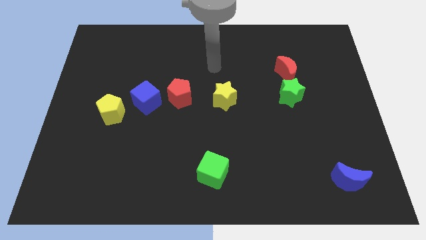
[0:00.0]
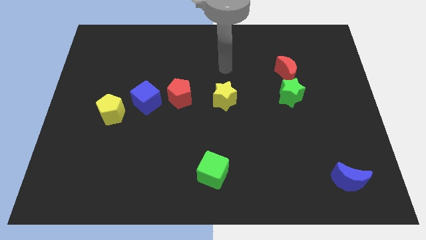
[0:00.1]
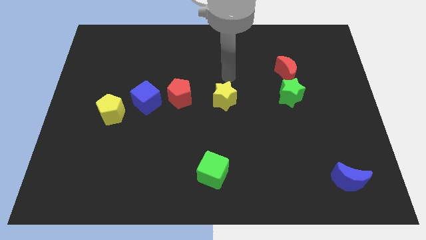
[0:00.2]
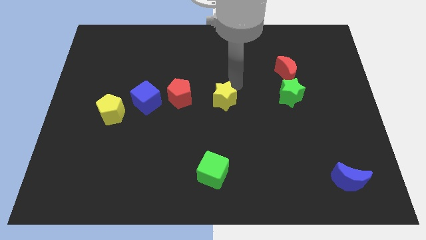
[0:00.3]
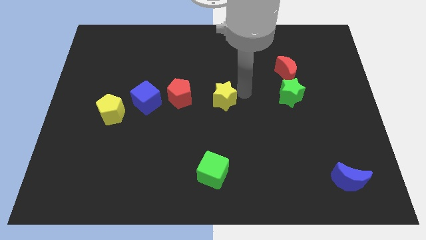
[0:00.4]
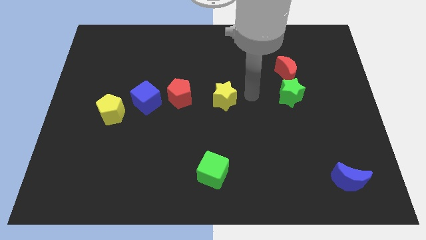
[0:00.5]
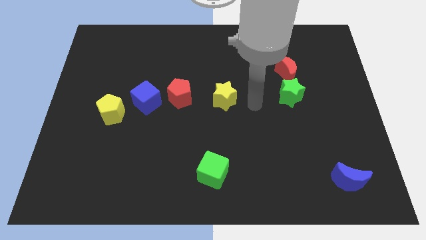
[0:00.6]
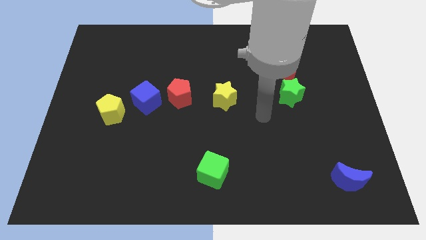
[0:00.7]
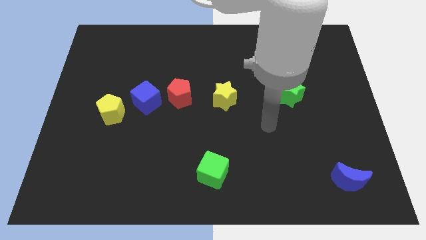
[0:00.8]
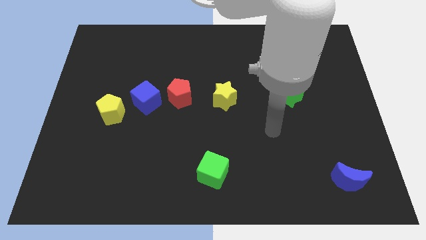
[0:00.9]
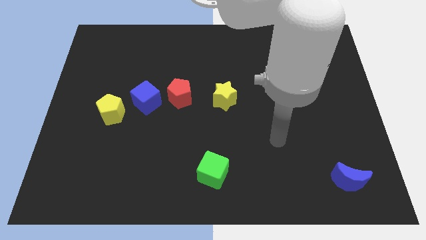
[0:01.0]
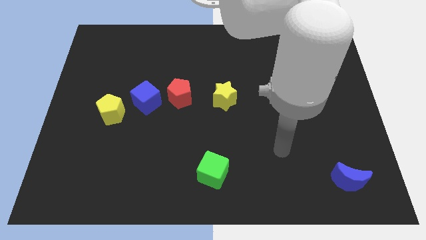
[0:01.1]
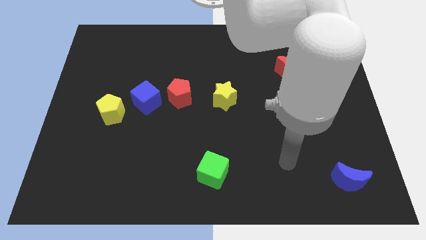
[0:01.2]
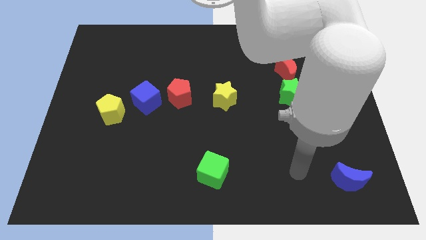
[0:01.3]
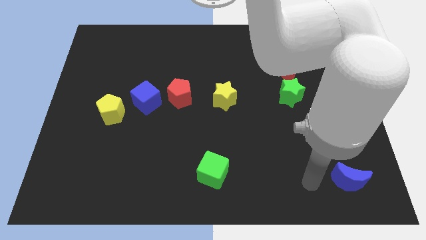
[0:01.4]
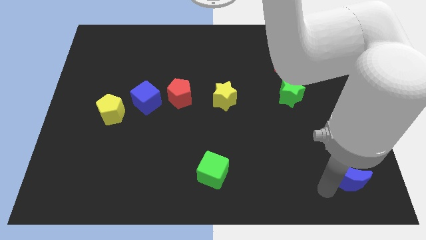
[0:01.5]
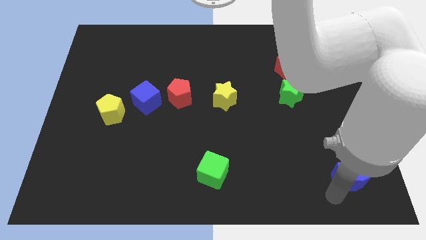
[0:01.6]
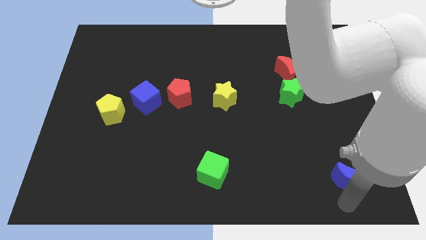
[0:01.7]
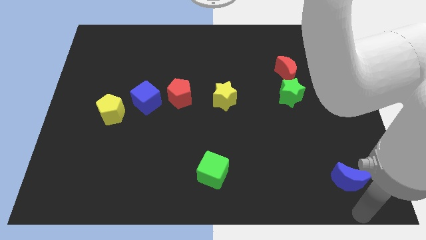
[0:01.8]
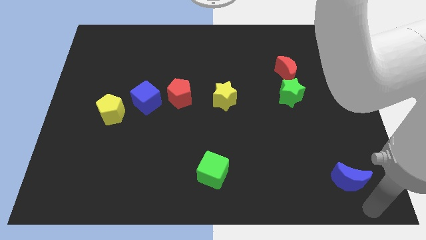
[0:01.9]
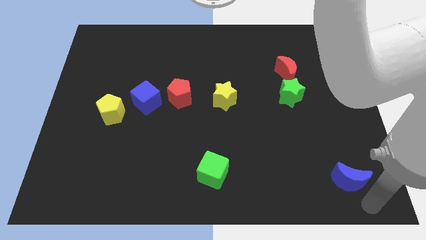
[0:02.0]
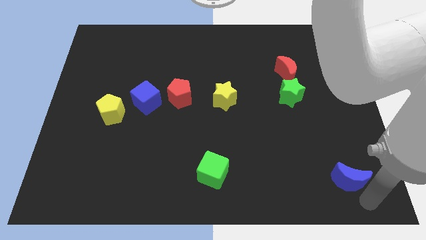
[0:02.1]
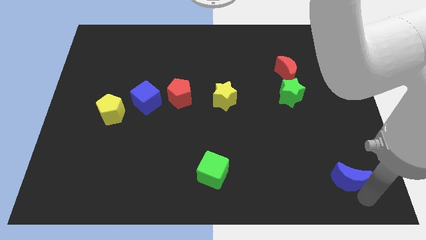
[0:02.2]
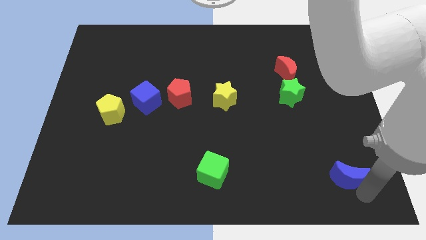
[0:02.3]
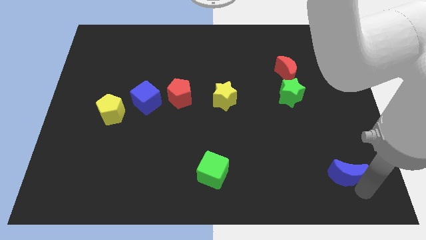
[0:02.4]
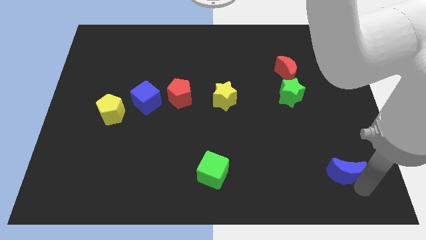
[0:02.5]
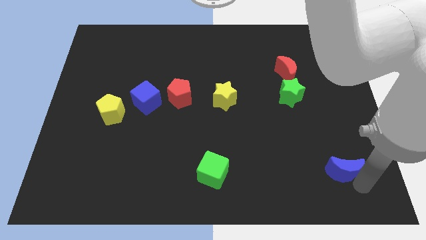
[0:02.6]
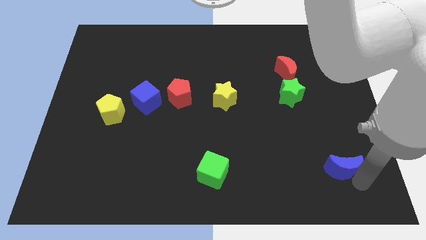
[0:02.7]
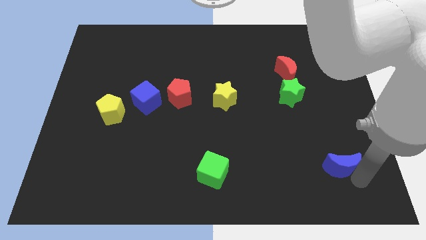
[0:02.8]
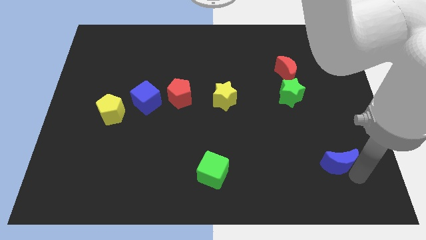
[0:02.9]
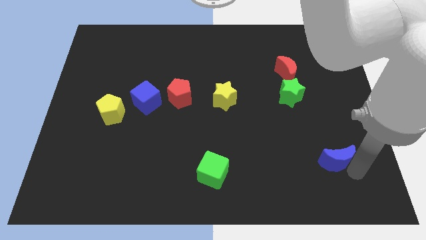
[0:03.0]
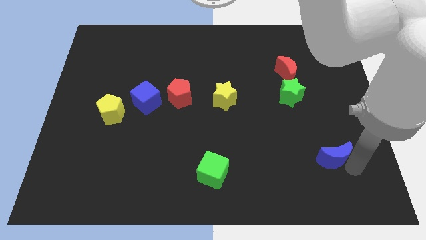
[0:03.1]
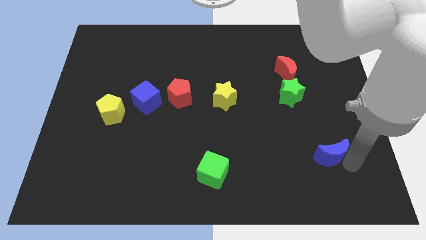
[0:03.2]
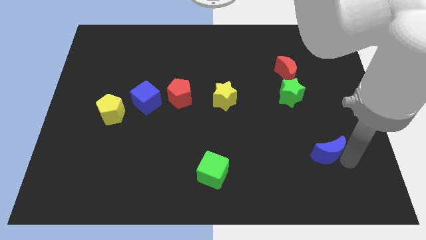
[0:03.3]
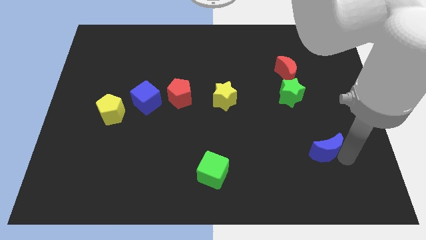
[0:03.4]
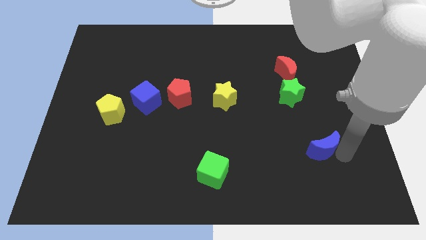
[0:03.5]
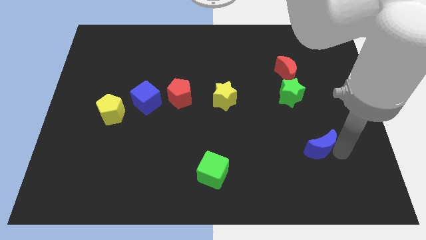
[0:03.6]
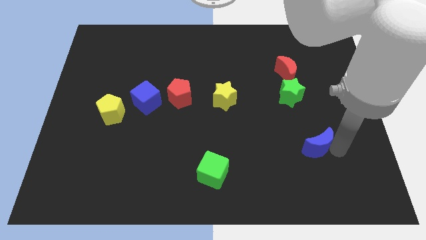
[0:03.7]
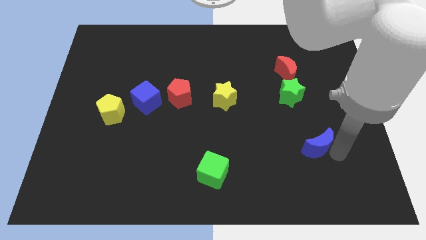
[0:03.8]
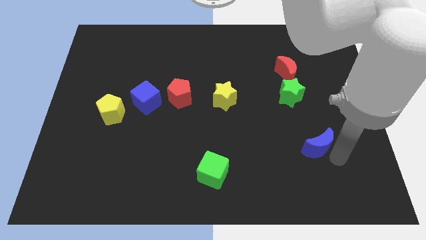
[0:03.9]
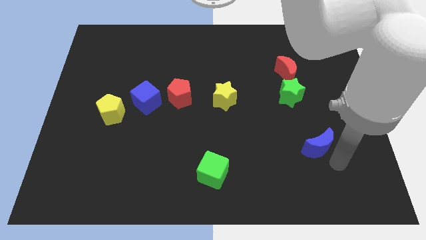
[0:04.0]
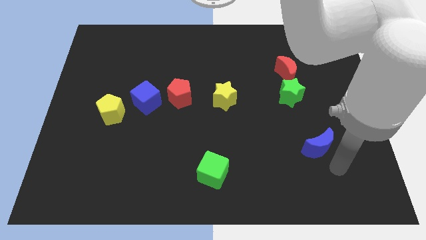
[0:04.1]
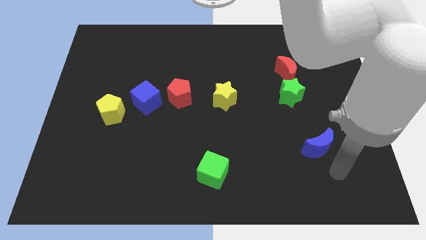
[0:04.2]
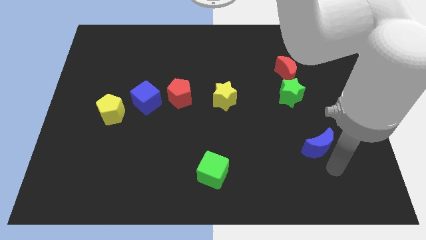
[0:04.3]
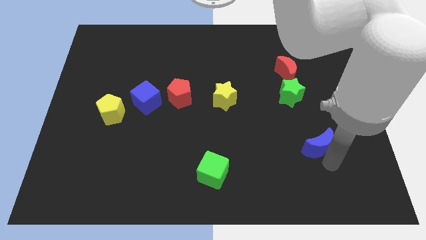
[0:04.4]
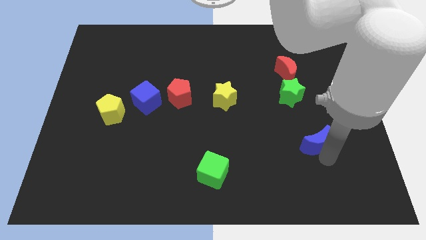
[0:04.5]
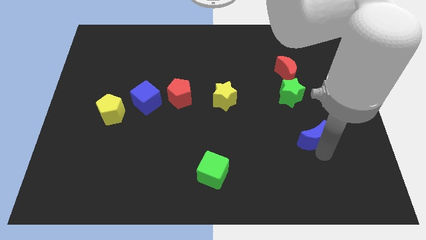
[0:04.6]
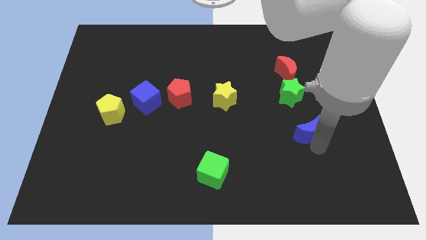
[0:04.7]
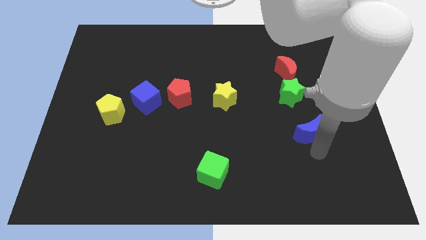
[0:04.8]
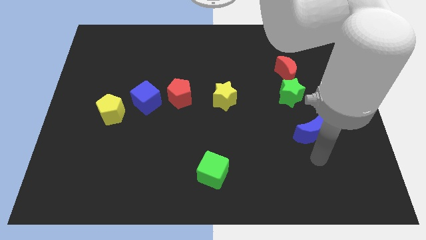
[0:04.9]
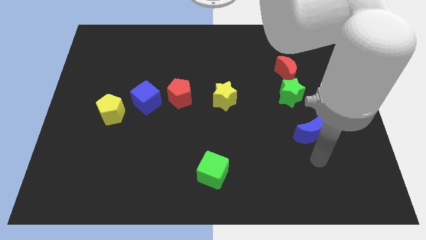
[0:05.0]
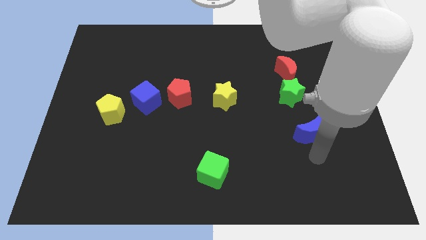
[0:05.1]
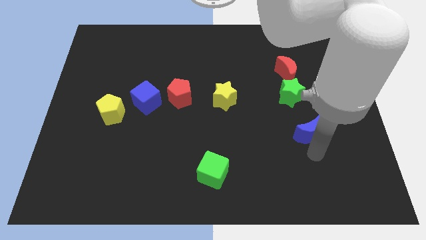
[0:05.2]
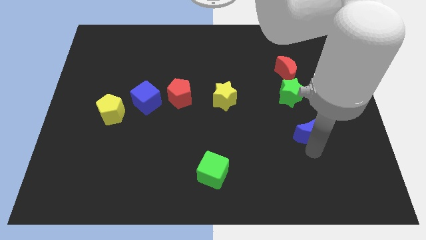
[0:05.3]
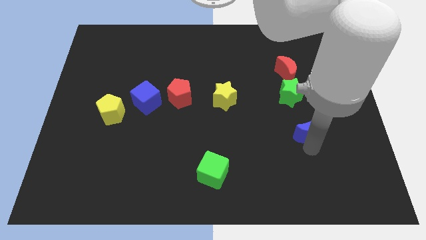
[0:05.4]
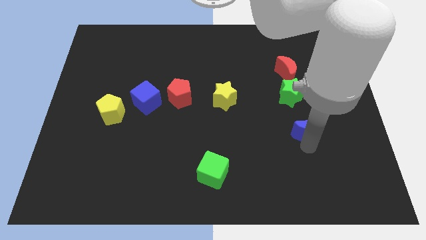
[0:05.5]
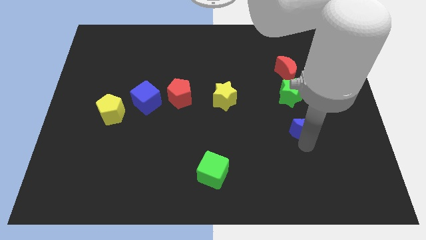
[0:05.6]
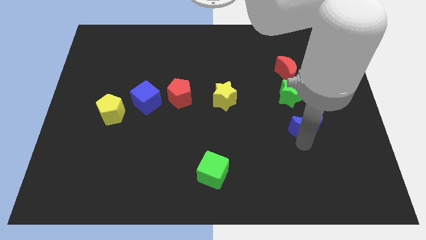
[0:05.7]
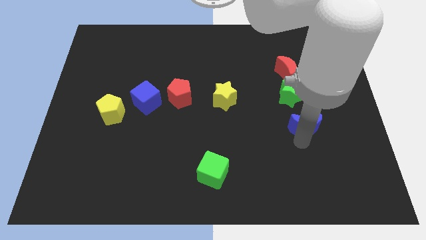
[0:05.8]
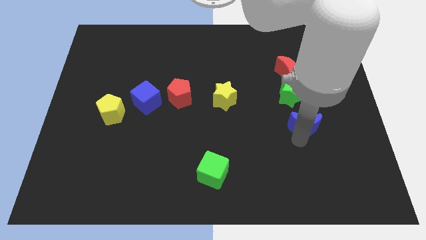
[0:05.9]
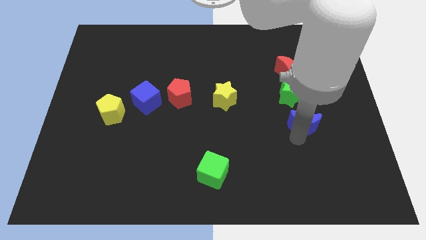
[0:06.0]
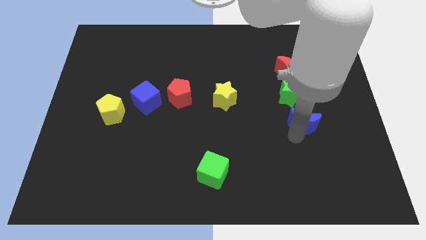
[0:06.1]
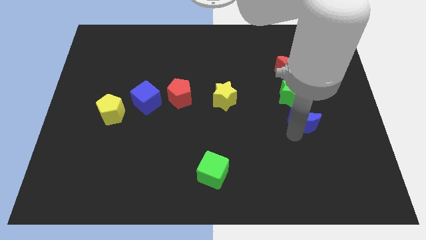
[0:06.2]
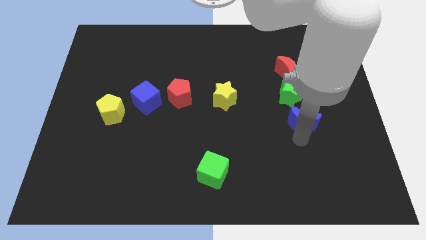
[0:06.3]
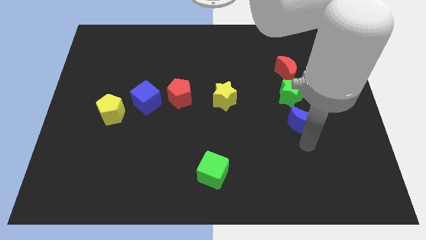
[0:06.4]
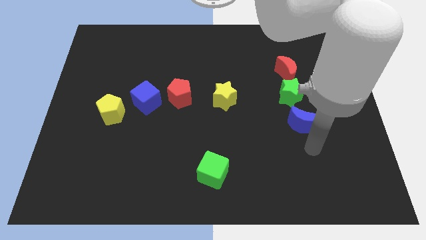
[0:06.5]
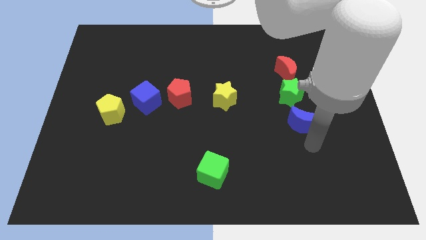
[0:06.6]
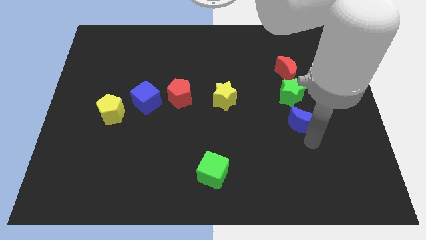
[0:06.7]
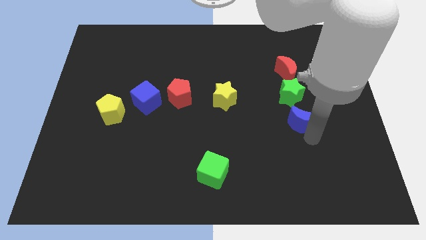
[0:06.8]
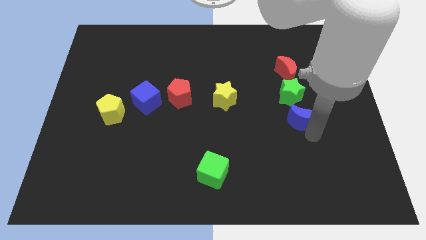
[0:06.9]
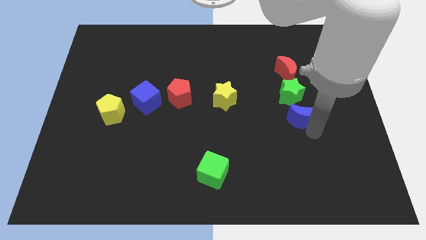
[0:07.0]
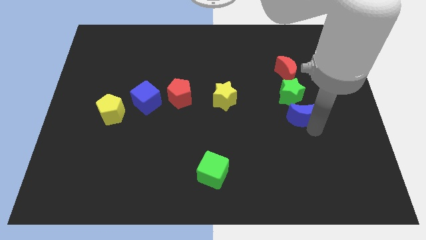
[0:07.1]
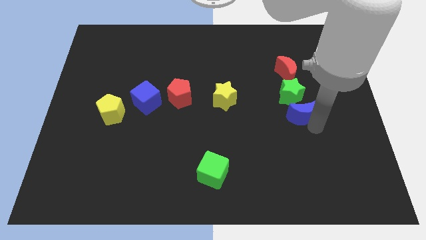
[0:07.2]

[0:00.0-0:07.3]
slide the blue moon towards the green star
